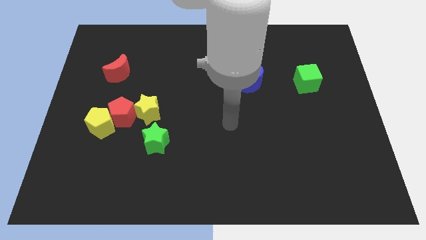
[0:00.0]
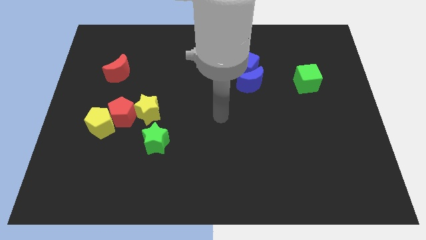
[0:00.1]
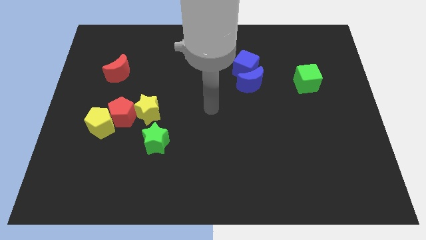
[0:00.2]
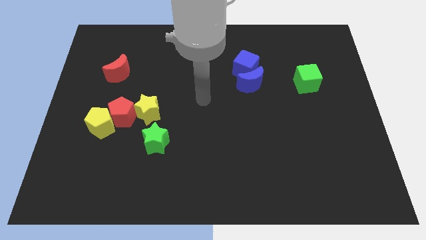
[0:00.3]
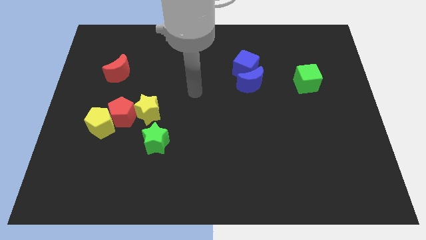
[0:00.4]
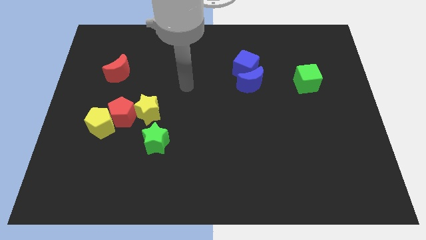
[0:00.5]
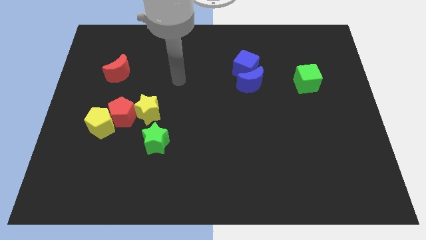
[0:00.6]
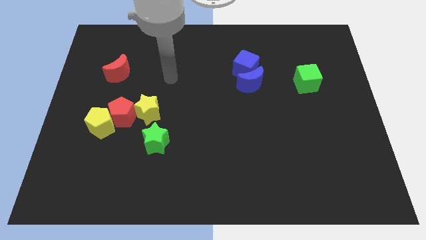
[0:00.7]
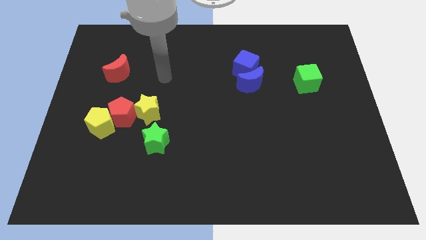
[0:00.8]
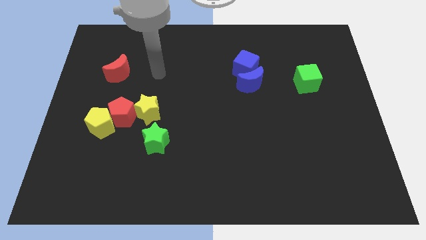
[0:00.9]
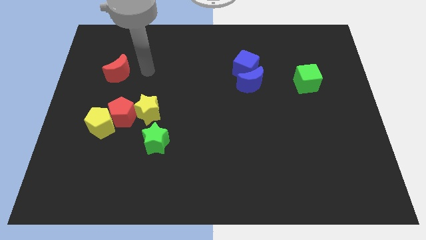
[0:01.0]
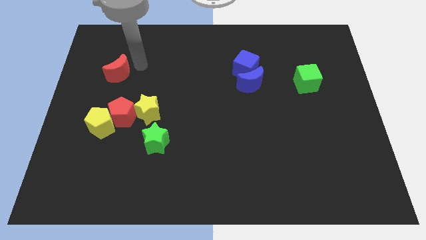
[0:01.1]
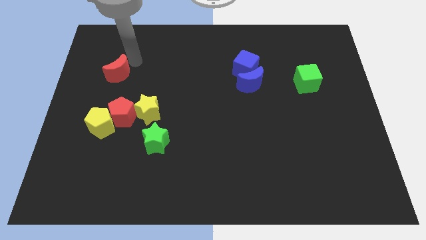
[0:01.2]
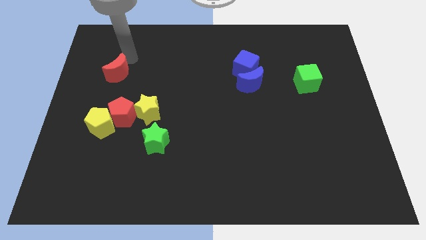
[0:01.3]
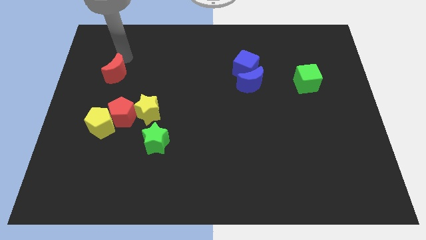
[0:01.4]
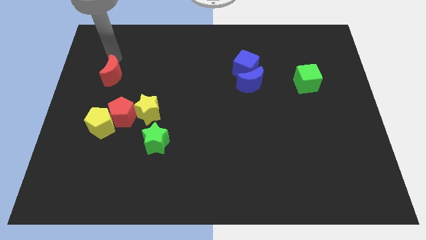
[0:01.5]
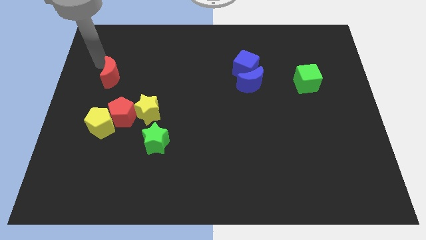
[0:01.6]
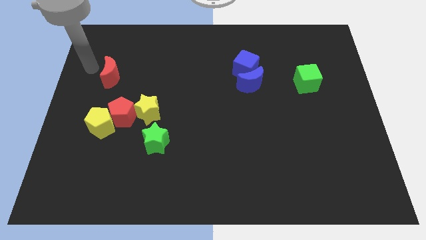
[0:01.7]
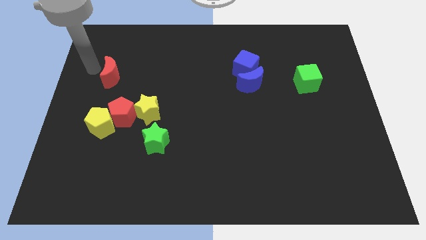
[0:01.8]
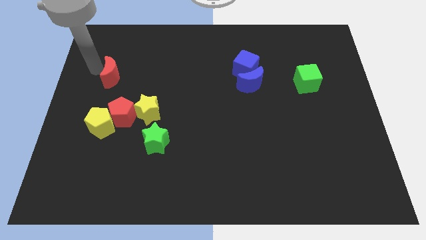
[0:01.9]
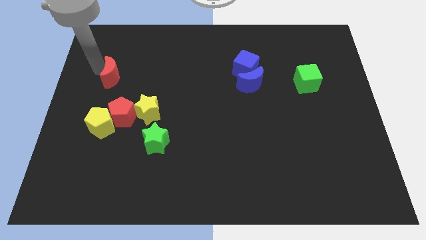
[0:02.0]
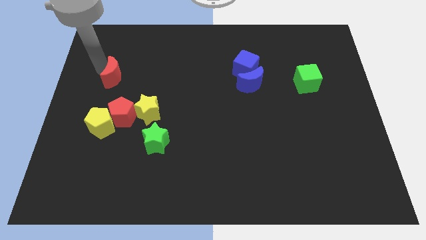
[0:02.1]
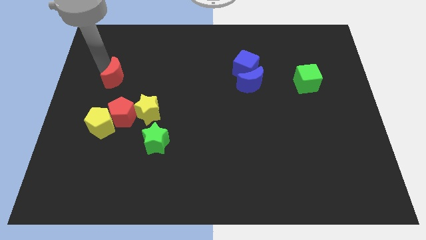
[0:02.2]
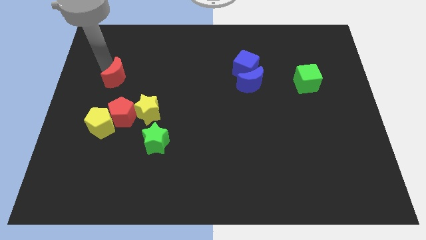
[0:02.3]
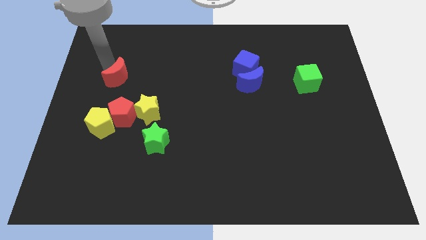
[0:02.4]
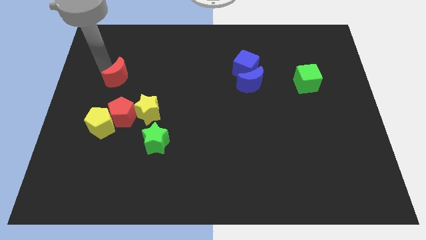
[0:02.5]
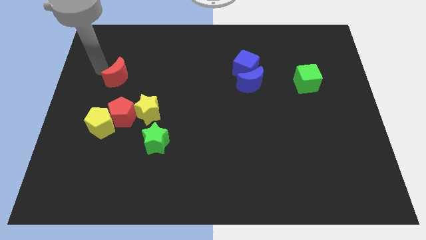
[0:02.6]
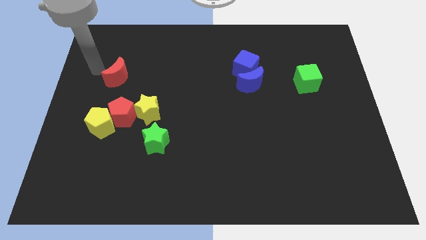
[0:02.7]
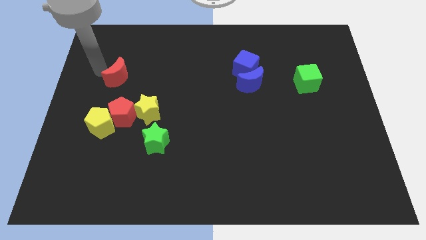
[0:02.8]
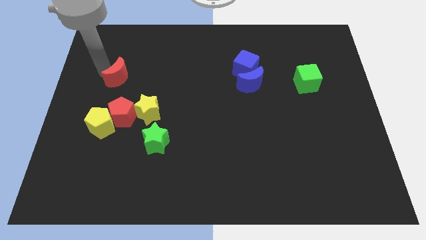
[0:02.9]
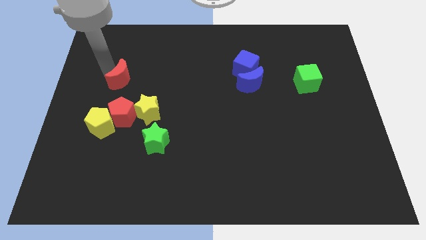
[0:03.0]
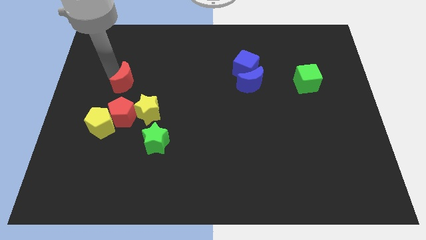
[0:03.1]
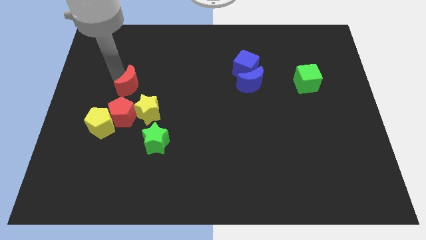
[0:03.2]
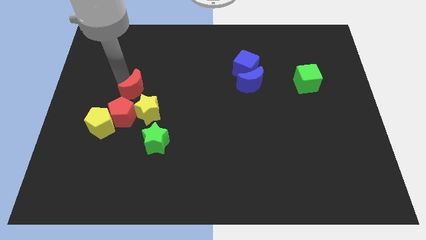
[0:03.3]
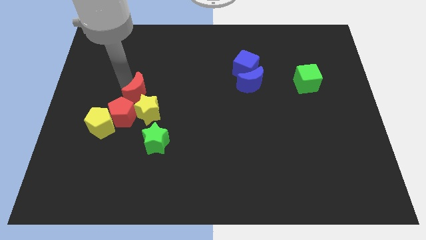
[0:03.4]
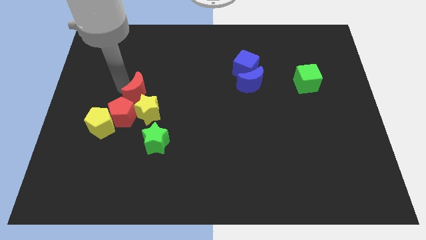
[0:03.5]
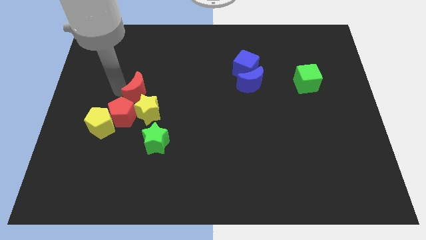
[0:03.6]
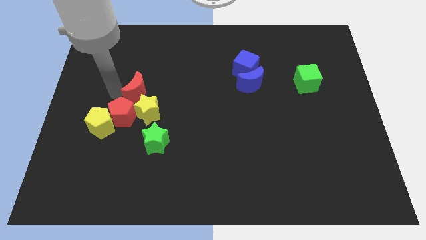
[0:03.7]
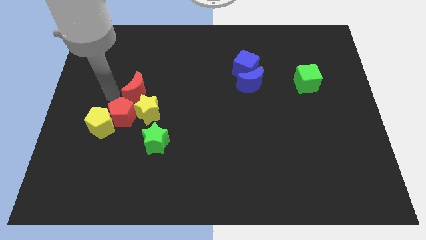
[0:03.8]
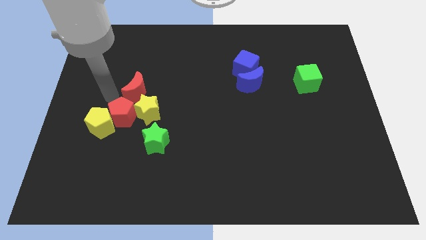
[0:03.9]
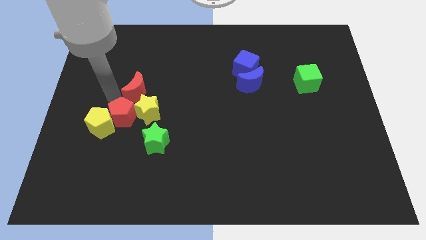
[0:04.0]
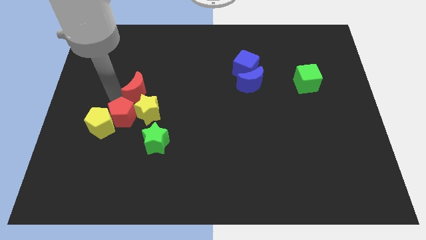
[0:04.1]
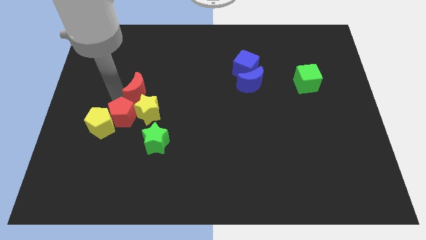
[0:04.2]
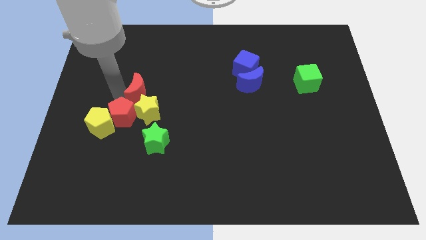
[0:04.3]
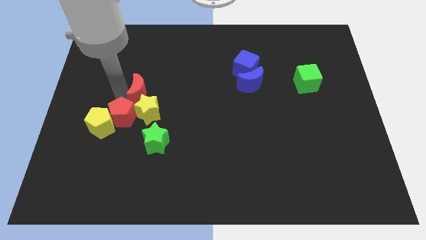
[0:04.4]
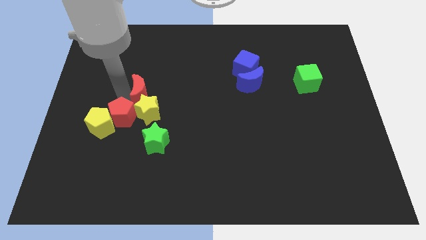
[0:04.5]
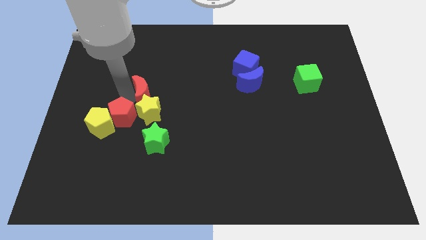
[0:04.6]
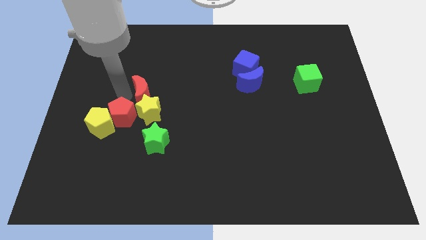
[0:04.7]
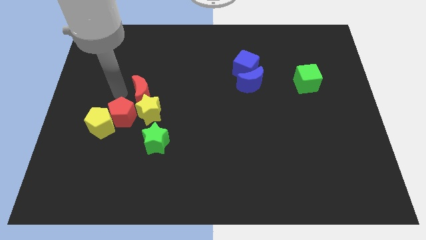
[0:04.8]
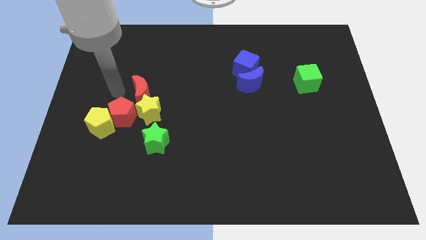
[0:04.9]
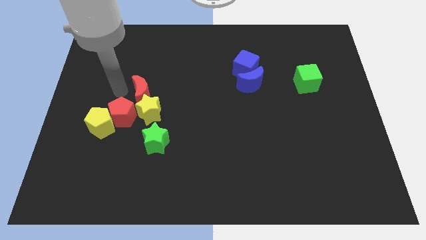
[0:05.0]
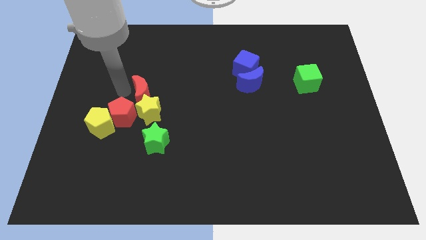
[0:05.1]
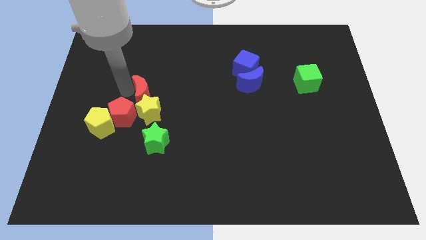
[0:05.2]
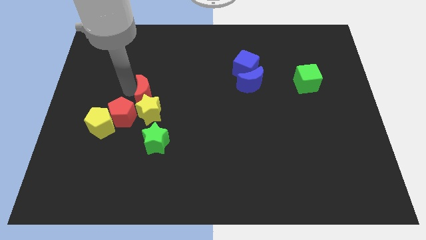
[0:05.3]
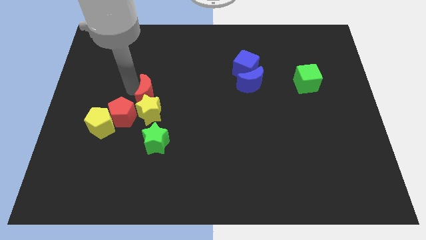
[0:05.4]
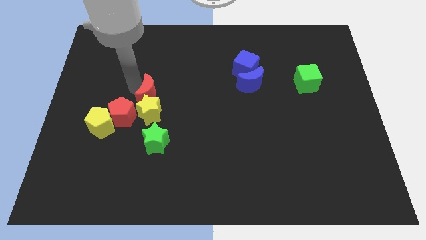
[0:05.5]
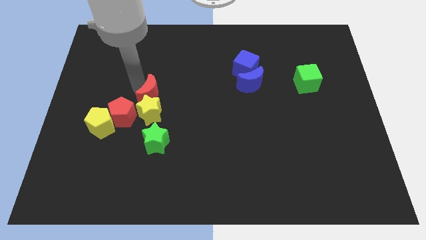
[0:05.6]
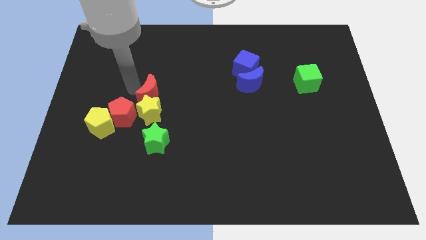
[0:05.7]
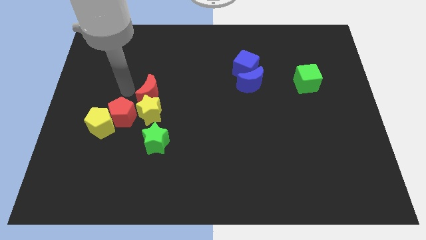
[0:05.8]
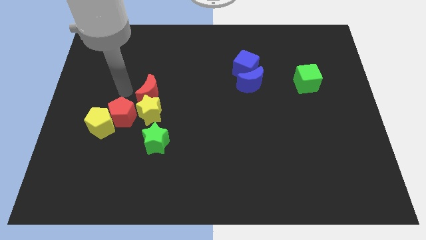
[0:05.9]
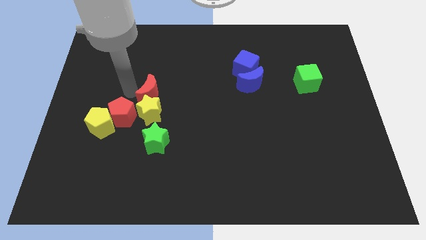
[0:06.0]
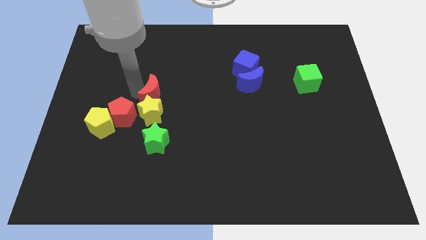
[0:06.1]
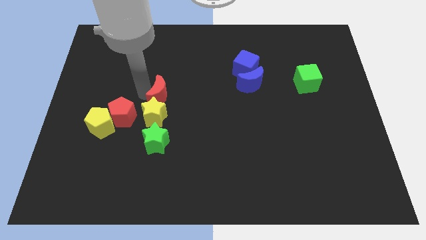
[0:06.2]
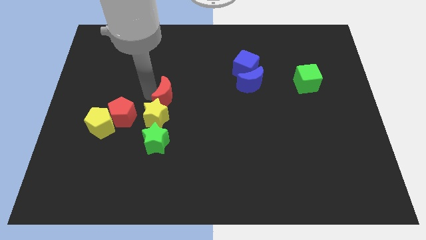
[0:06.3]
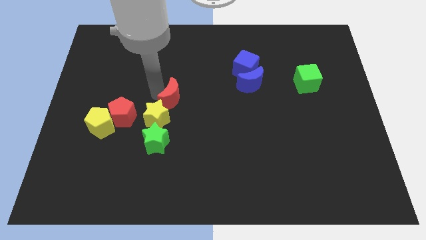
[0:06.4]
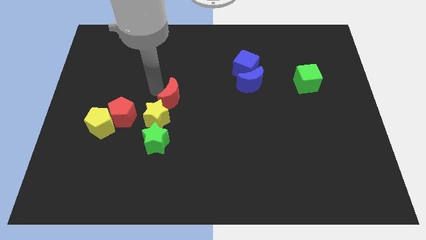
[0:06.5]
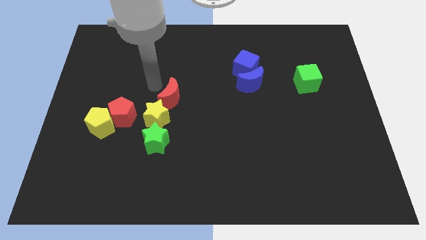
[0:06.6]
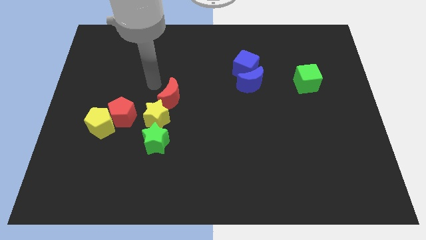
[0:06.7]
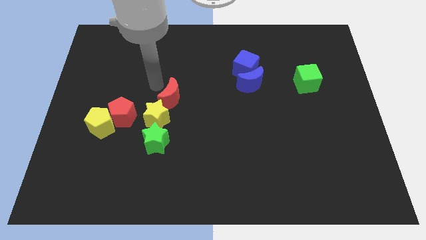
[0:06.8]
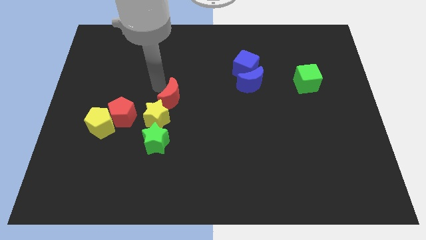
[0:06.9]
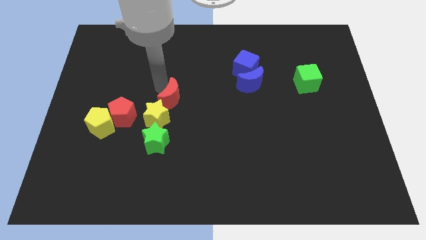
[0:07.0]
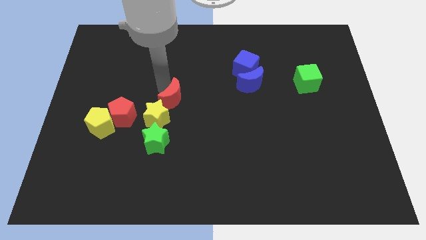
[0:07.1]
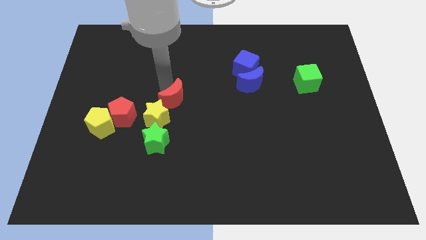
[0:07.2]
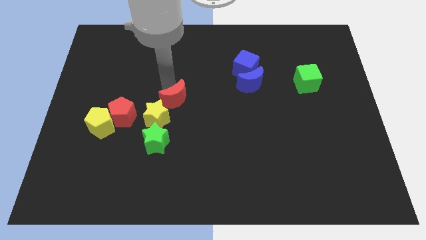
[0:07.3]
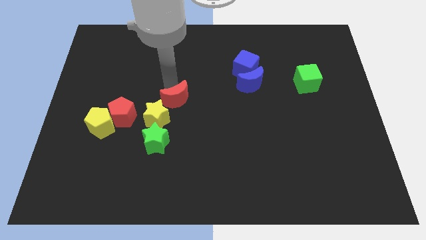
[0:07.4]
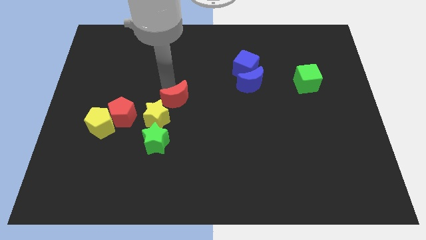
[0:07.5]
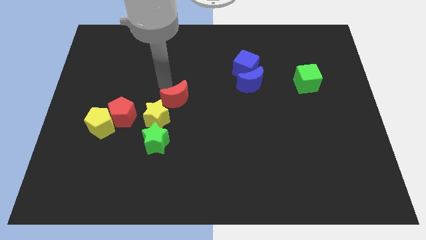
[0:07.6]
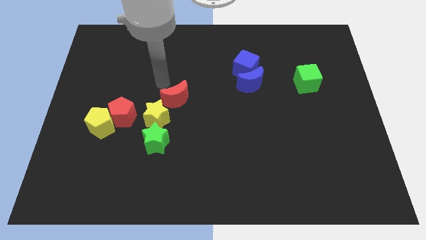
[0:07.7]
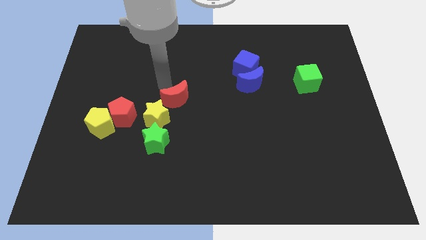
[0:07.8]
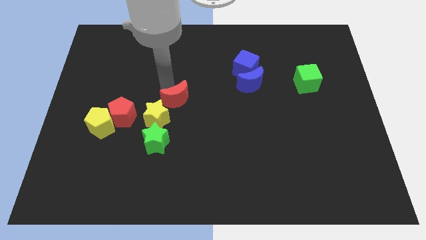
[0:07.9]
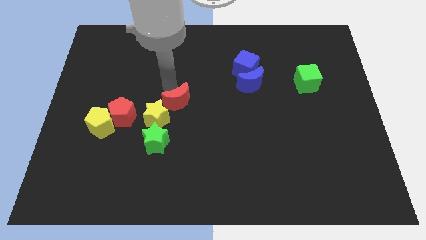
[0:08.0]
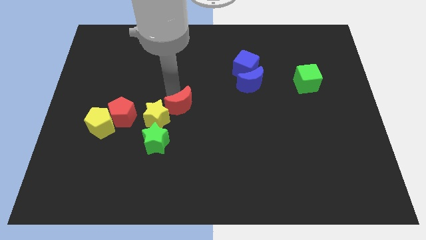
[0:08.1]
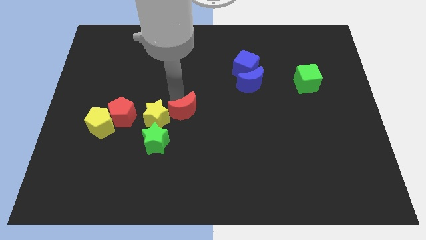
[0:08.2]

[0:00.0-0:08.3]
push the red moon diagonally down and right

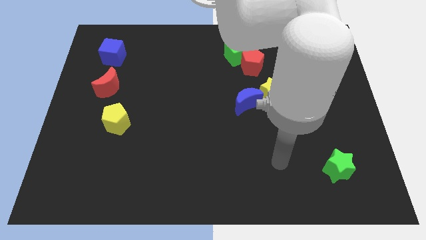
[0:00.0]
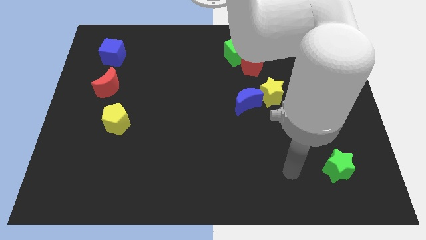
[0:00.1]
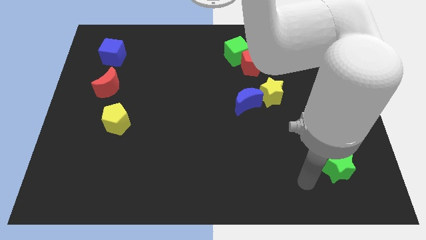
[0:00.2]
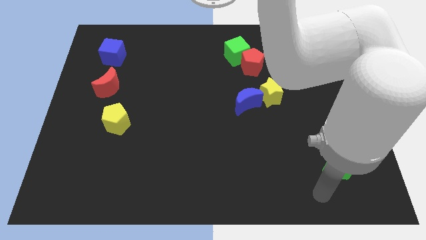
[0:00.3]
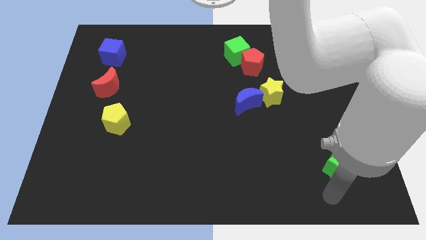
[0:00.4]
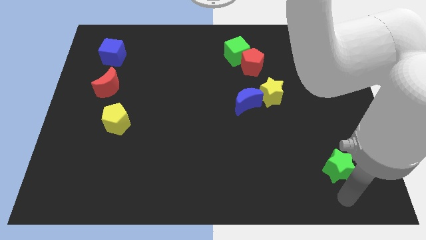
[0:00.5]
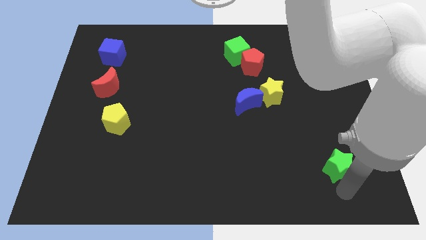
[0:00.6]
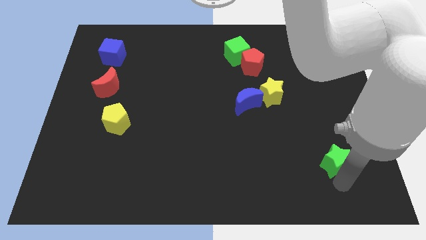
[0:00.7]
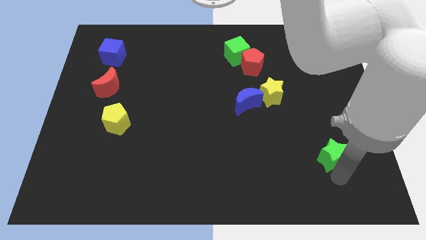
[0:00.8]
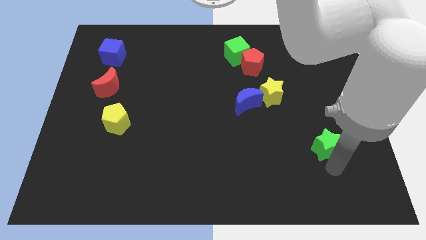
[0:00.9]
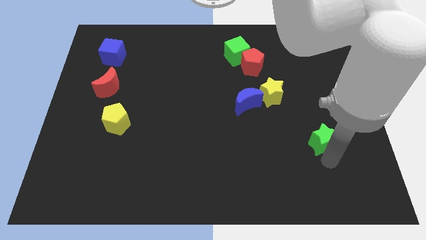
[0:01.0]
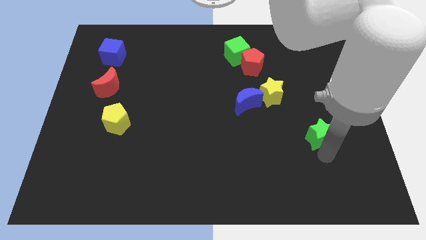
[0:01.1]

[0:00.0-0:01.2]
slide the green star somewhat upwards
